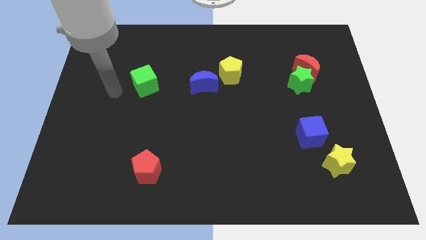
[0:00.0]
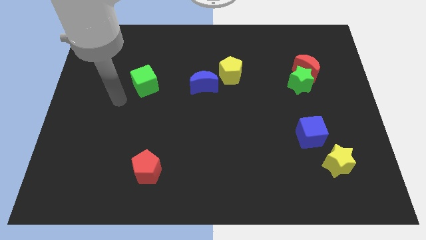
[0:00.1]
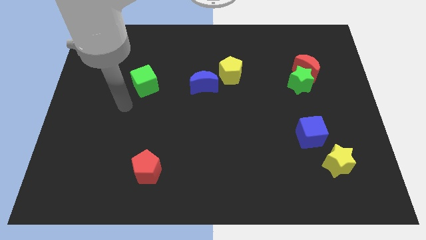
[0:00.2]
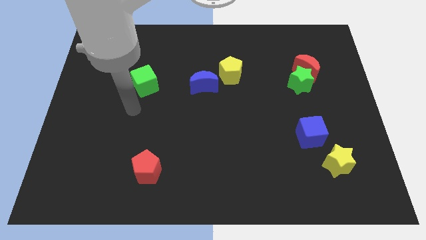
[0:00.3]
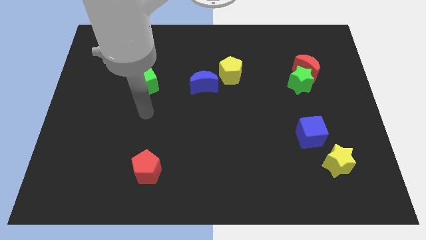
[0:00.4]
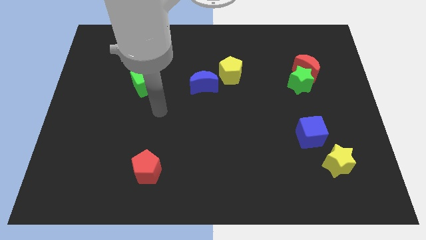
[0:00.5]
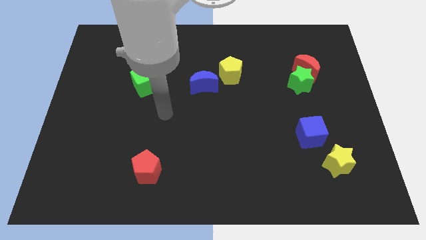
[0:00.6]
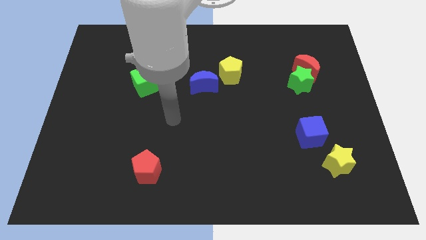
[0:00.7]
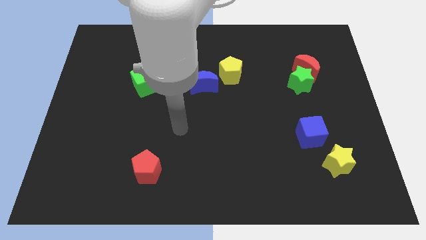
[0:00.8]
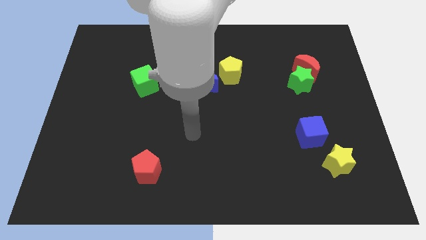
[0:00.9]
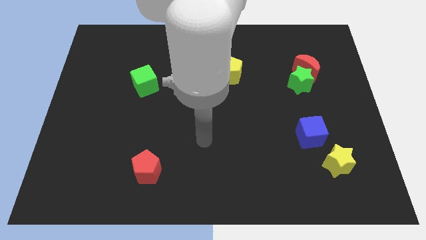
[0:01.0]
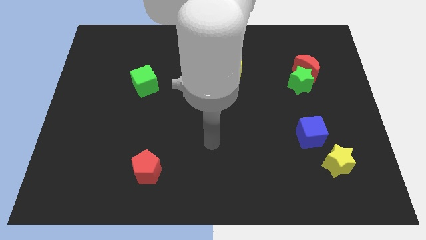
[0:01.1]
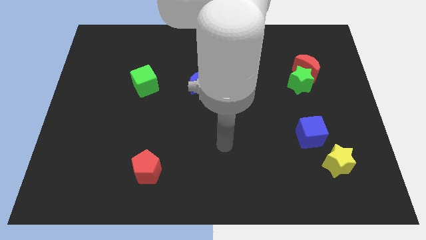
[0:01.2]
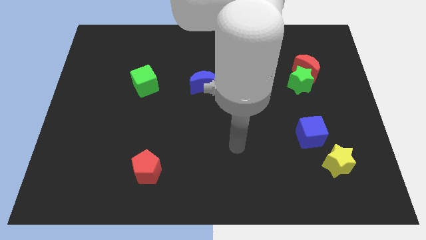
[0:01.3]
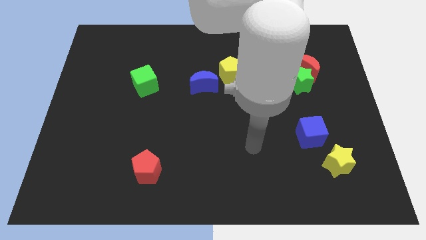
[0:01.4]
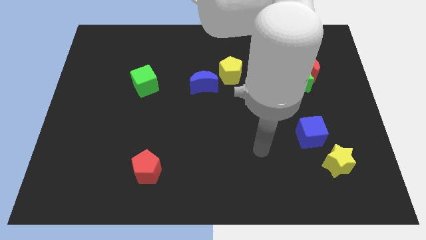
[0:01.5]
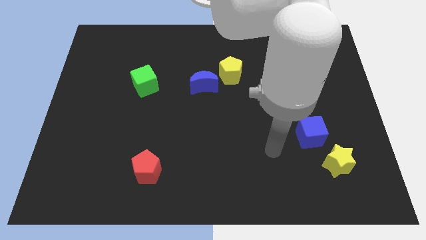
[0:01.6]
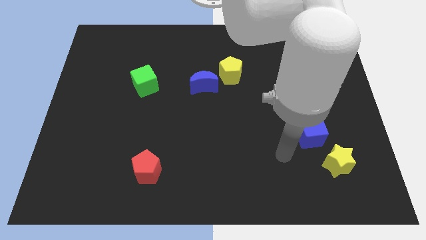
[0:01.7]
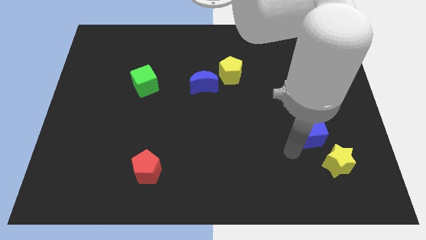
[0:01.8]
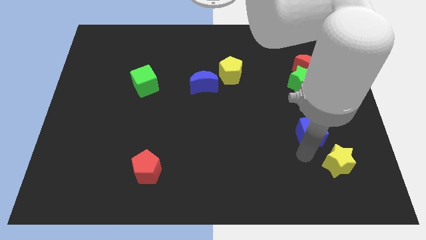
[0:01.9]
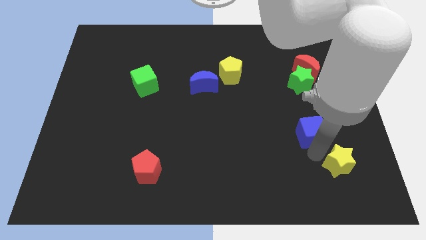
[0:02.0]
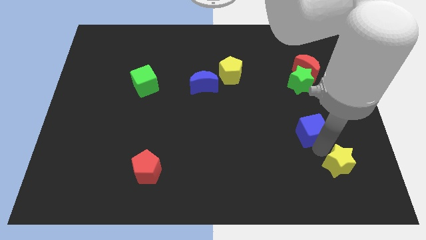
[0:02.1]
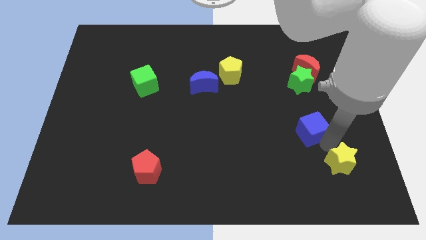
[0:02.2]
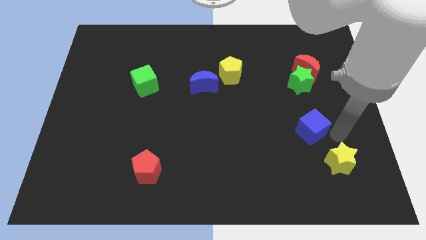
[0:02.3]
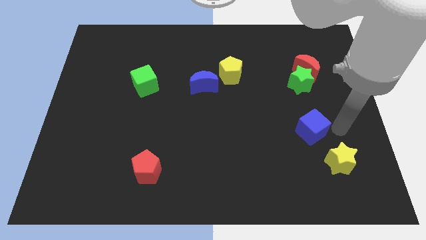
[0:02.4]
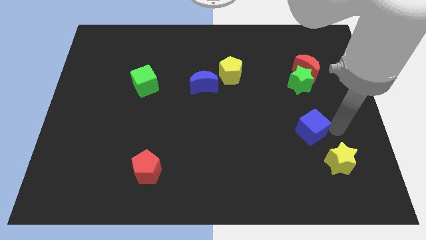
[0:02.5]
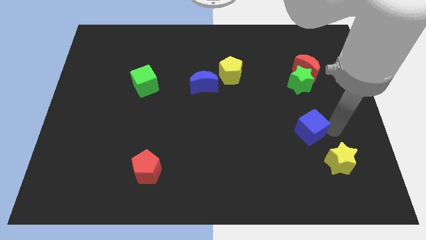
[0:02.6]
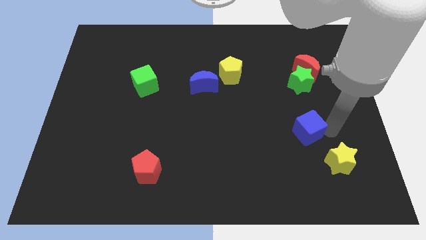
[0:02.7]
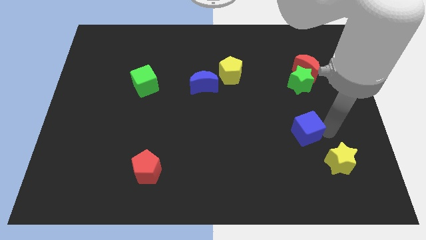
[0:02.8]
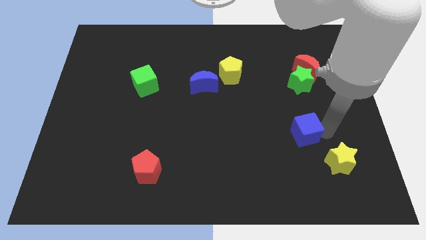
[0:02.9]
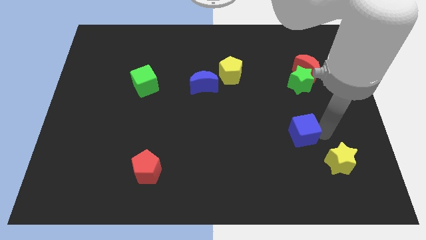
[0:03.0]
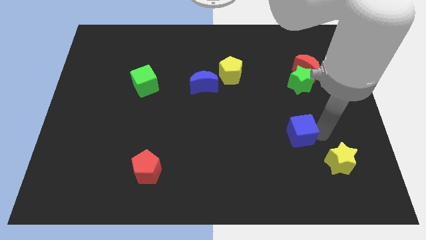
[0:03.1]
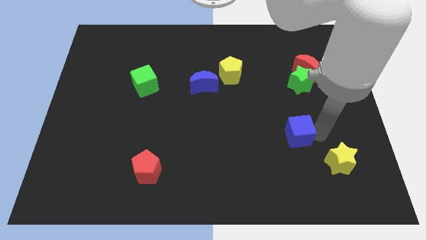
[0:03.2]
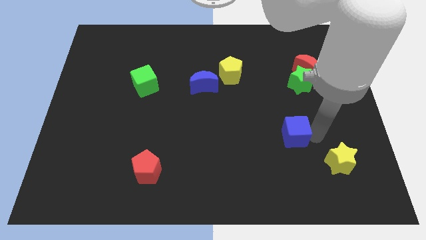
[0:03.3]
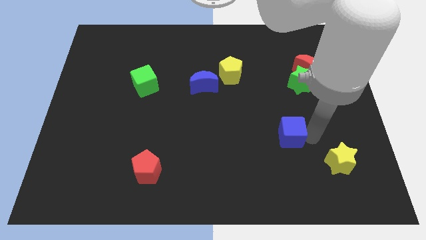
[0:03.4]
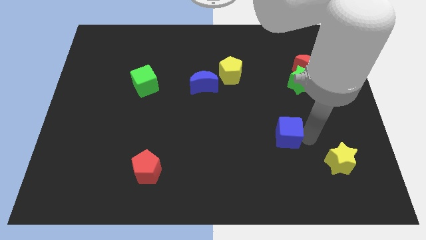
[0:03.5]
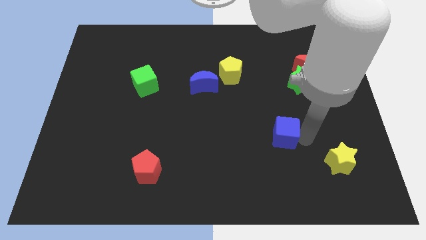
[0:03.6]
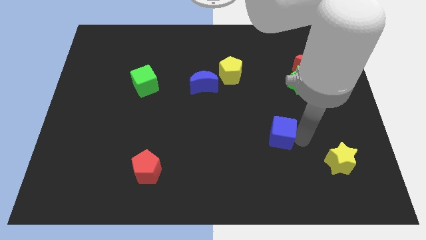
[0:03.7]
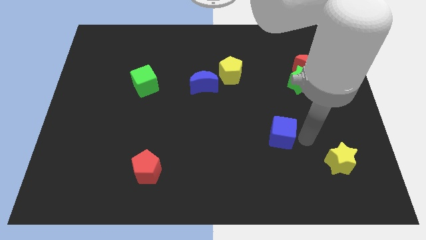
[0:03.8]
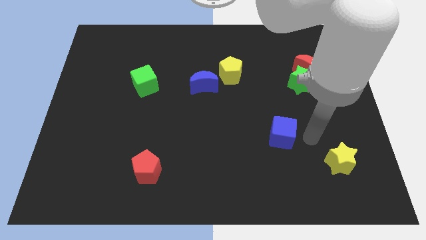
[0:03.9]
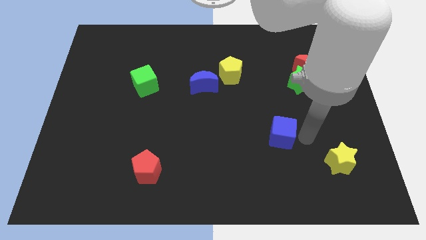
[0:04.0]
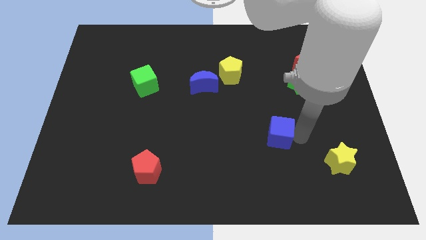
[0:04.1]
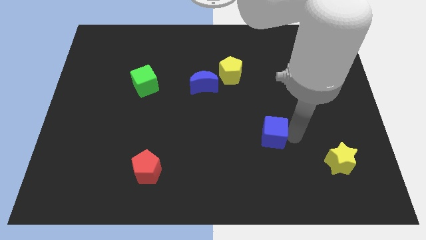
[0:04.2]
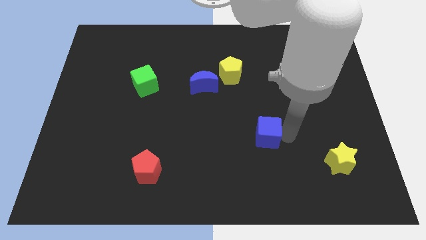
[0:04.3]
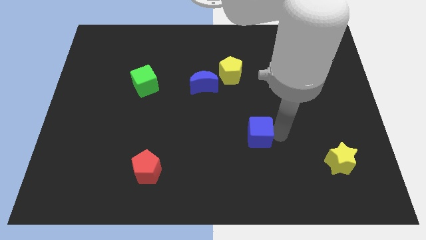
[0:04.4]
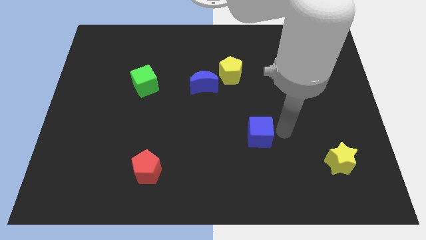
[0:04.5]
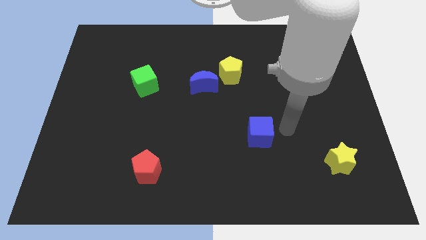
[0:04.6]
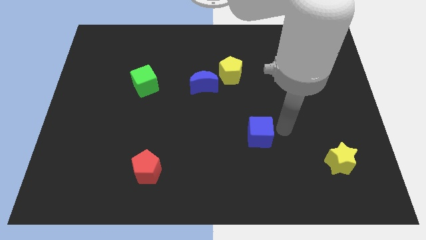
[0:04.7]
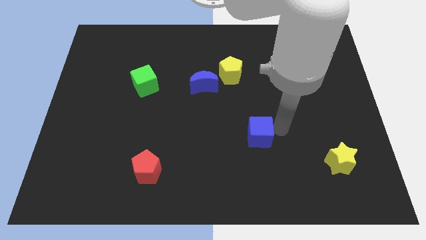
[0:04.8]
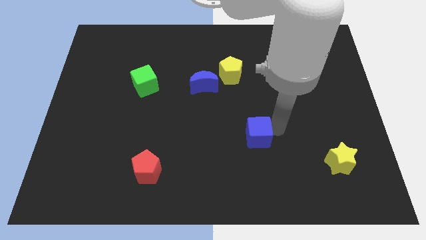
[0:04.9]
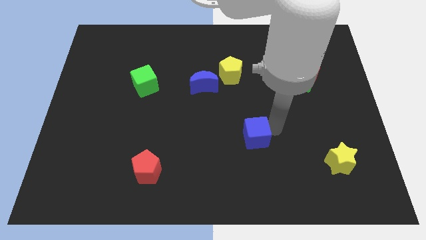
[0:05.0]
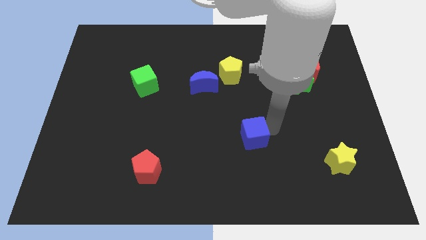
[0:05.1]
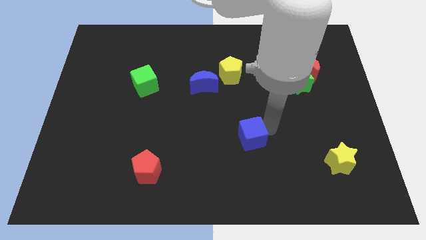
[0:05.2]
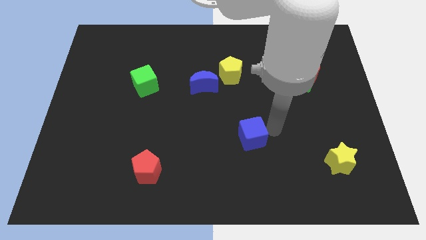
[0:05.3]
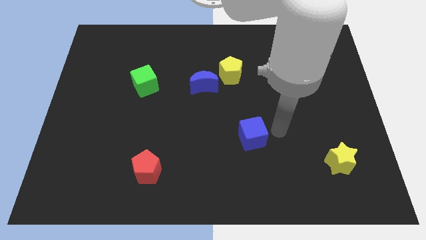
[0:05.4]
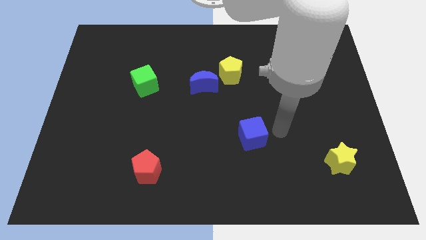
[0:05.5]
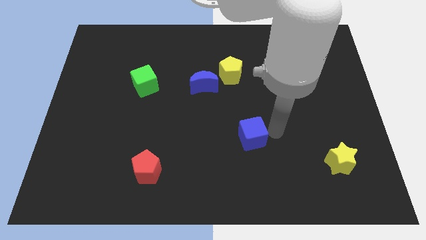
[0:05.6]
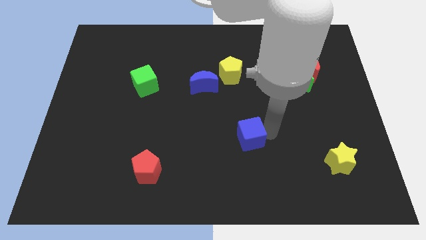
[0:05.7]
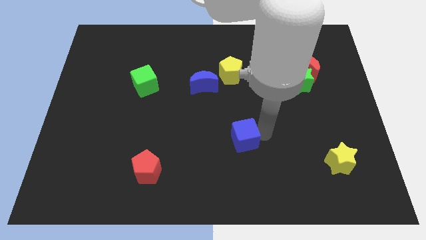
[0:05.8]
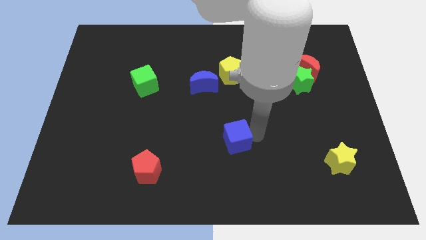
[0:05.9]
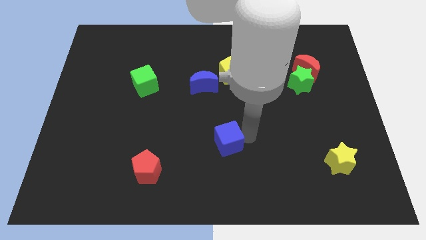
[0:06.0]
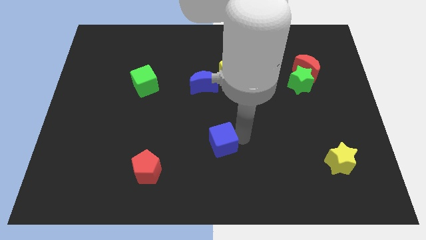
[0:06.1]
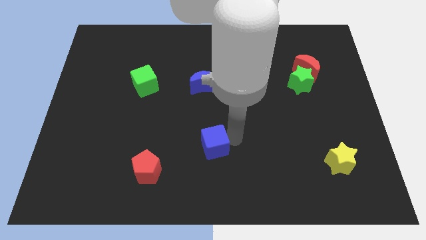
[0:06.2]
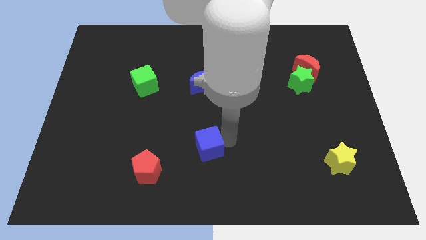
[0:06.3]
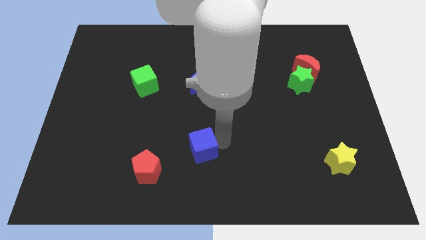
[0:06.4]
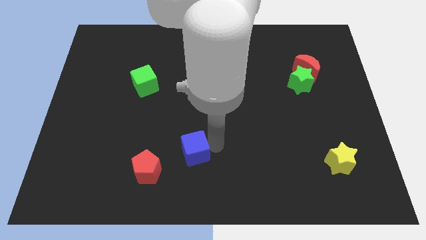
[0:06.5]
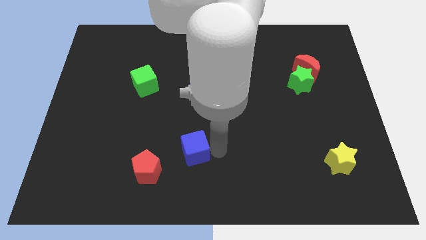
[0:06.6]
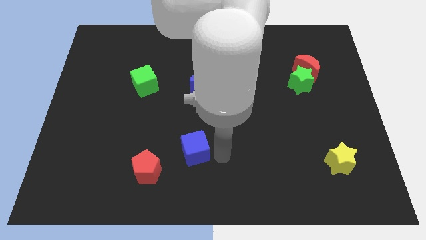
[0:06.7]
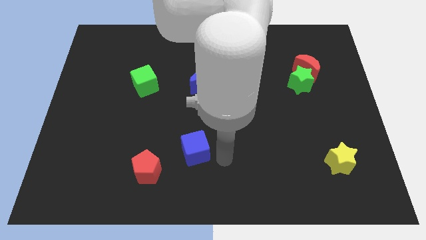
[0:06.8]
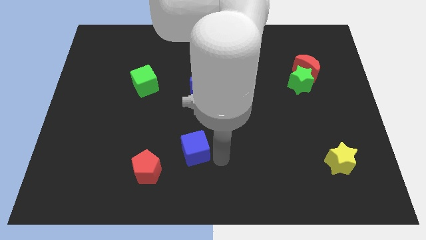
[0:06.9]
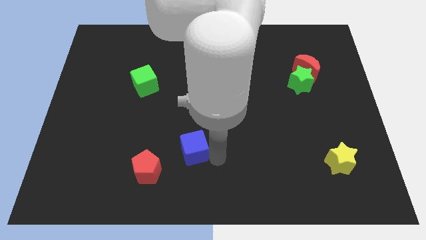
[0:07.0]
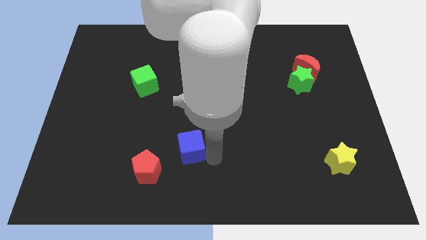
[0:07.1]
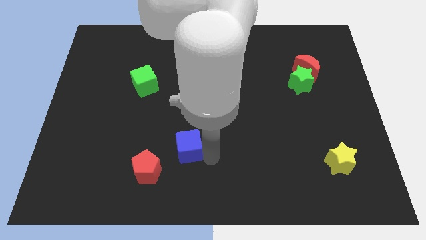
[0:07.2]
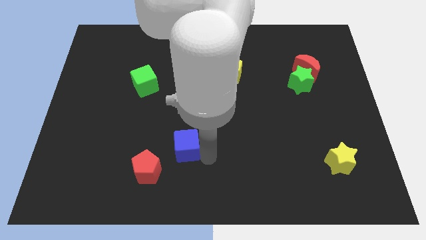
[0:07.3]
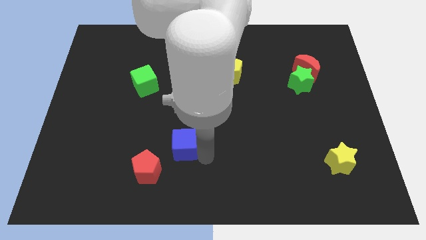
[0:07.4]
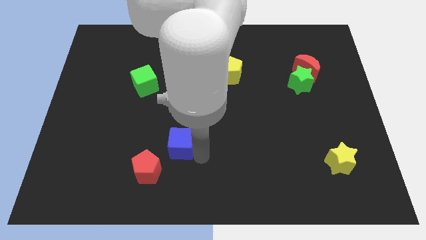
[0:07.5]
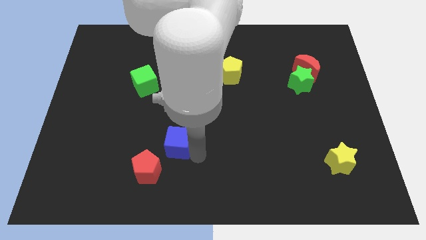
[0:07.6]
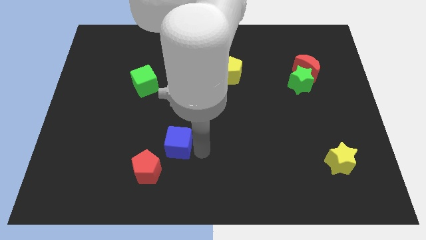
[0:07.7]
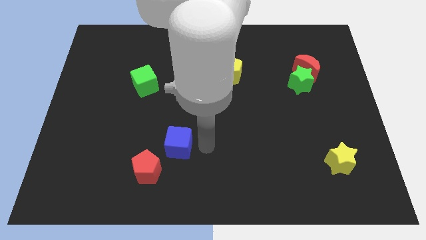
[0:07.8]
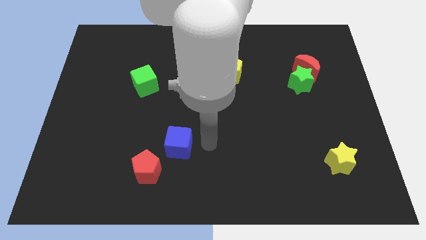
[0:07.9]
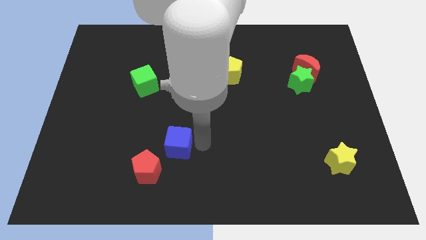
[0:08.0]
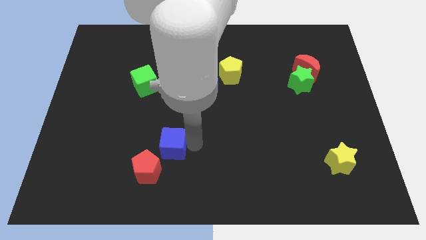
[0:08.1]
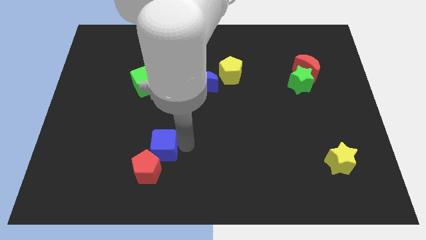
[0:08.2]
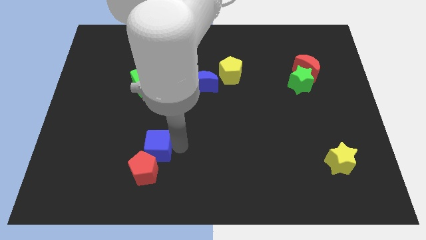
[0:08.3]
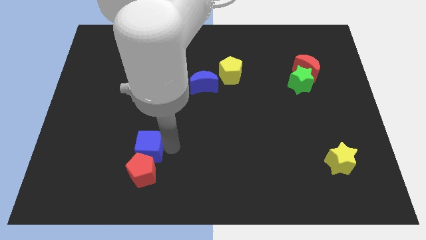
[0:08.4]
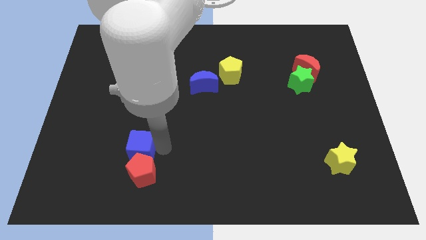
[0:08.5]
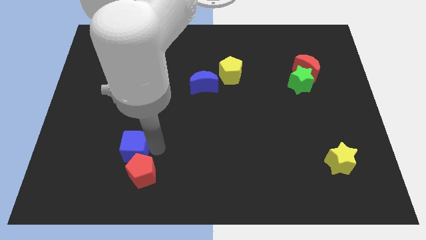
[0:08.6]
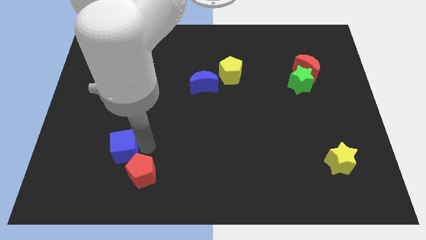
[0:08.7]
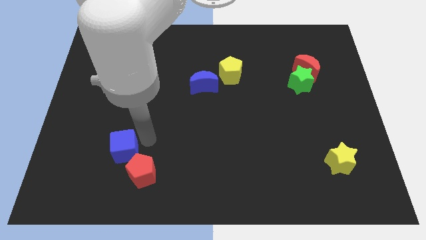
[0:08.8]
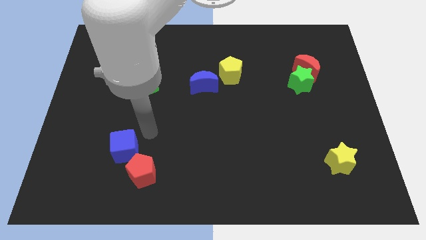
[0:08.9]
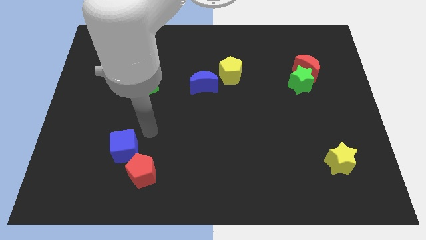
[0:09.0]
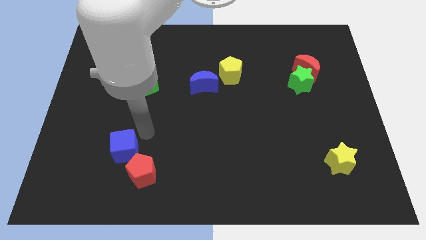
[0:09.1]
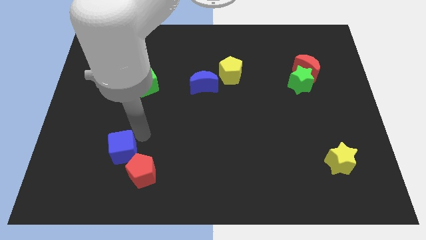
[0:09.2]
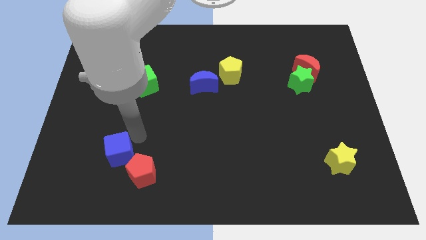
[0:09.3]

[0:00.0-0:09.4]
put the blue cube left of the red pentagon
